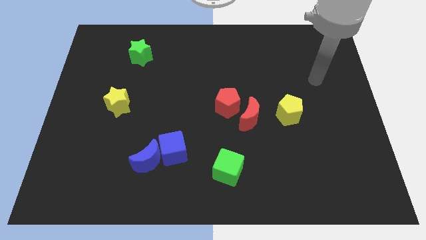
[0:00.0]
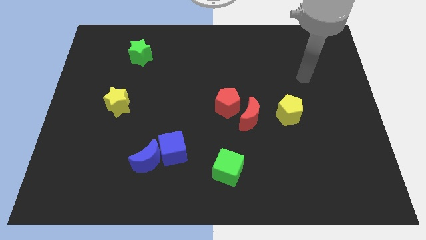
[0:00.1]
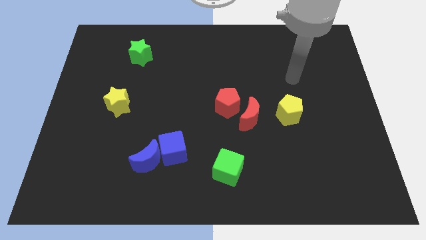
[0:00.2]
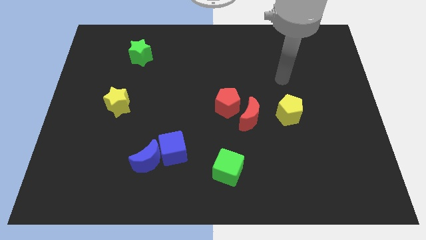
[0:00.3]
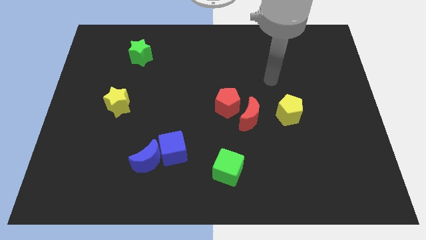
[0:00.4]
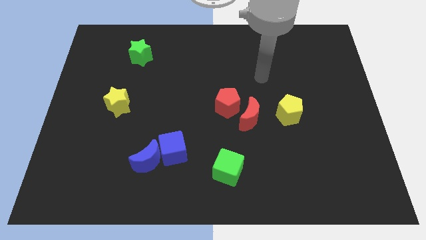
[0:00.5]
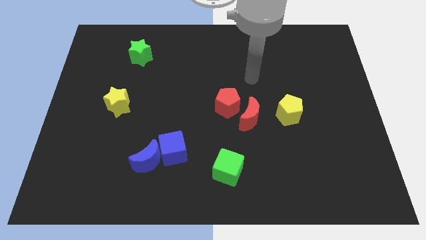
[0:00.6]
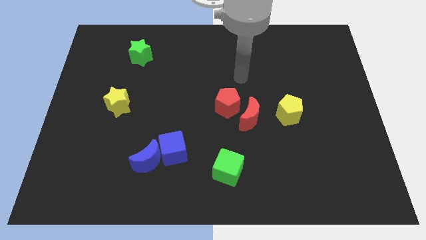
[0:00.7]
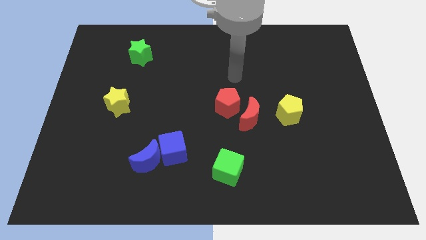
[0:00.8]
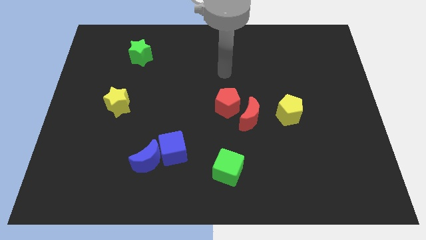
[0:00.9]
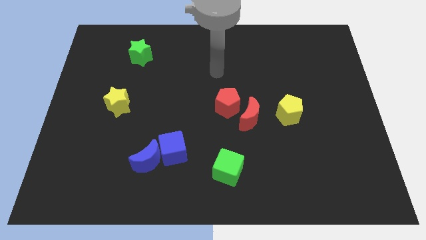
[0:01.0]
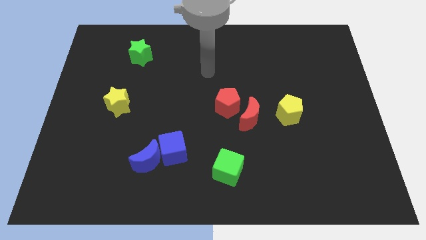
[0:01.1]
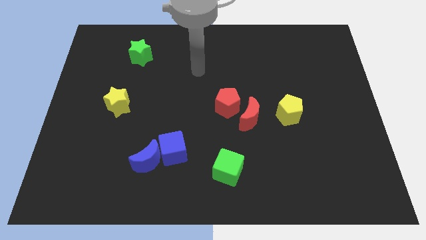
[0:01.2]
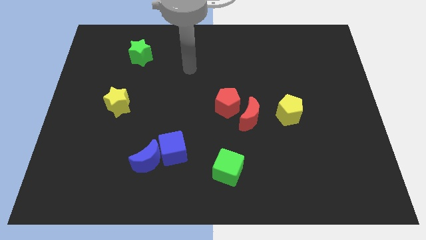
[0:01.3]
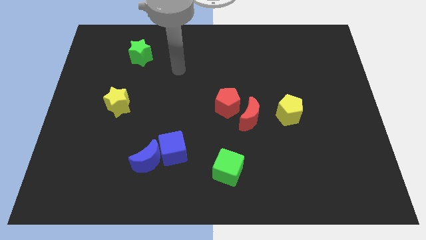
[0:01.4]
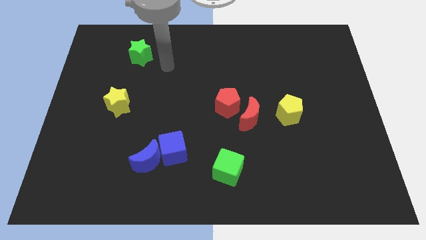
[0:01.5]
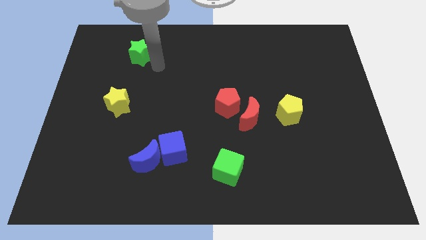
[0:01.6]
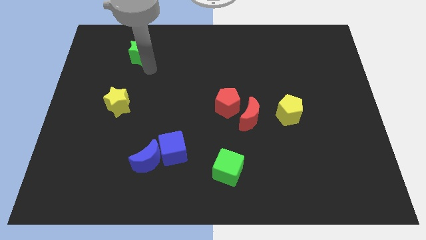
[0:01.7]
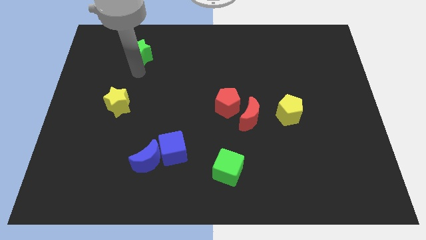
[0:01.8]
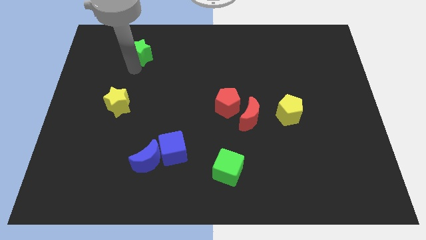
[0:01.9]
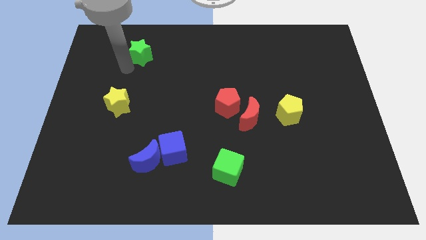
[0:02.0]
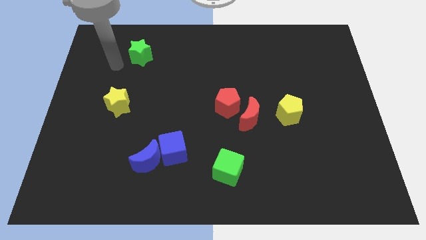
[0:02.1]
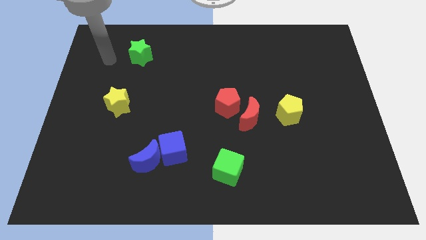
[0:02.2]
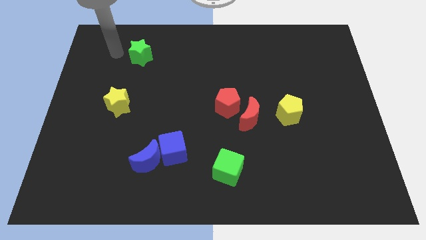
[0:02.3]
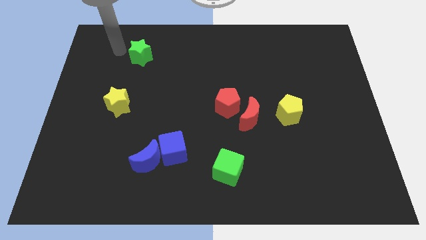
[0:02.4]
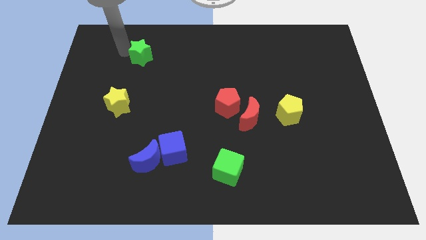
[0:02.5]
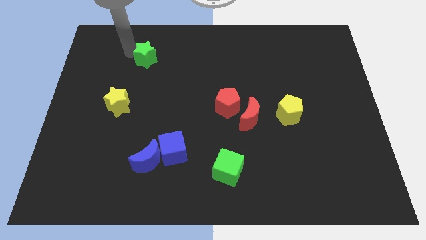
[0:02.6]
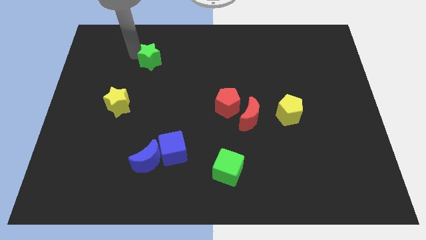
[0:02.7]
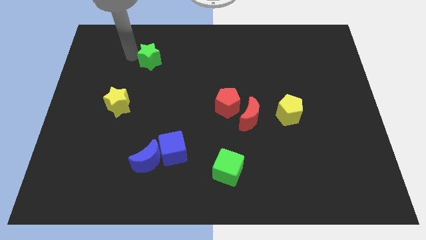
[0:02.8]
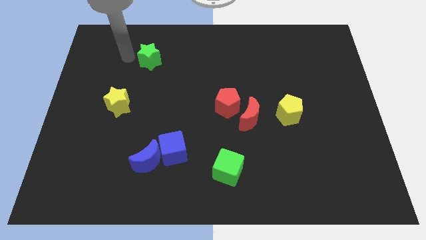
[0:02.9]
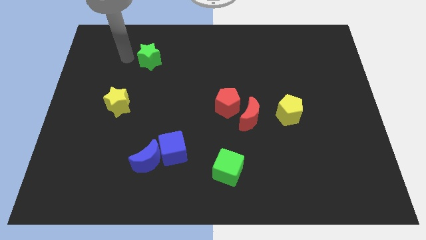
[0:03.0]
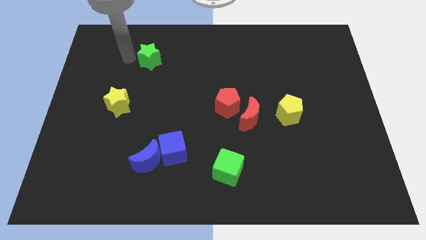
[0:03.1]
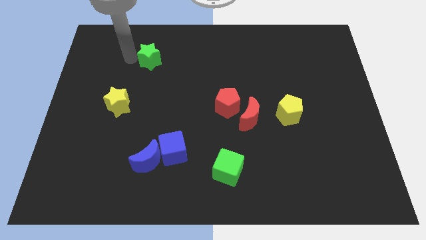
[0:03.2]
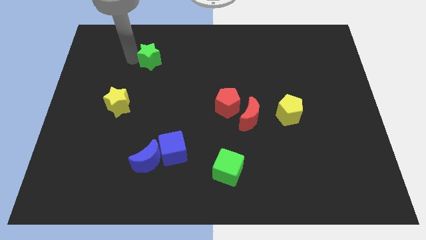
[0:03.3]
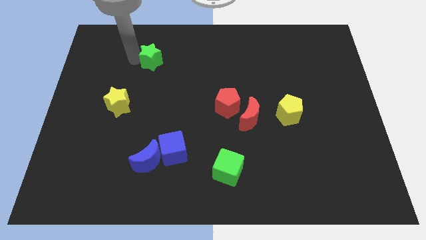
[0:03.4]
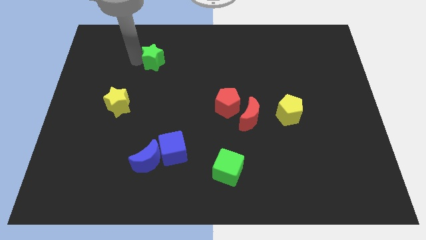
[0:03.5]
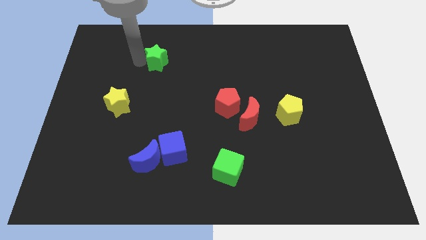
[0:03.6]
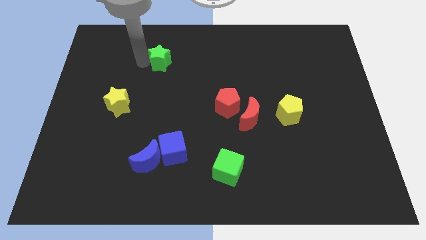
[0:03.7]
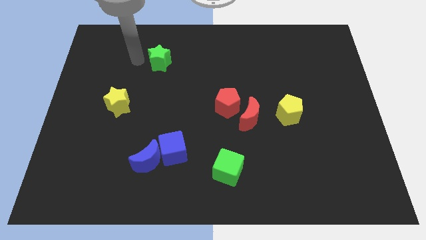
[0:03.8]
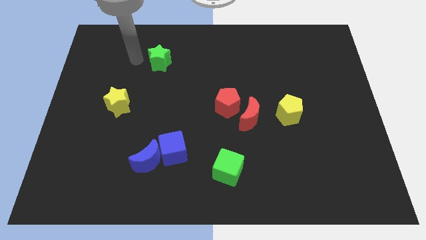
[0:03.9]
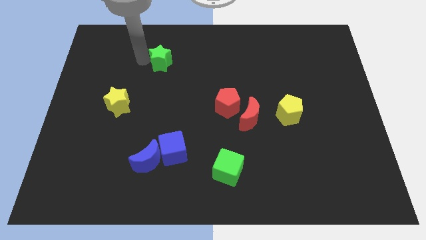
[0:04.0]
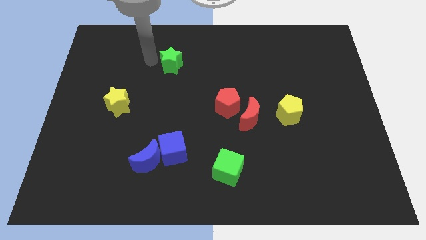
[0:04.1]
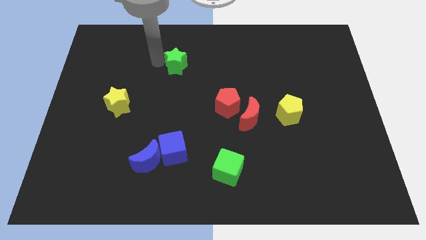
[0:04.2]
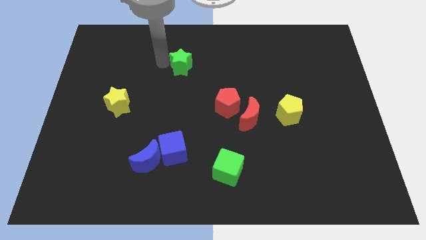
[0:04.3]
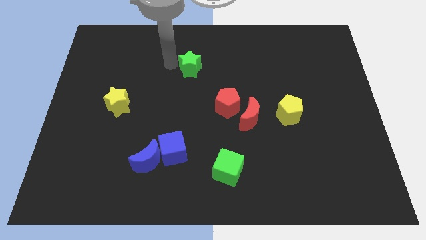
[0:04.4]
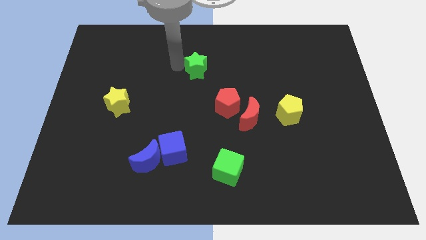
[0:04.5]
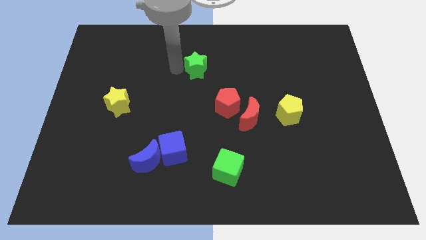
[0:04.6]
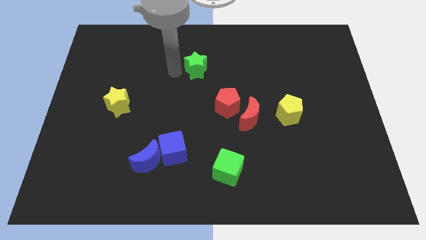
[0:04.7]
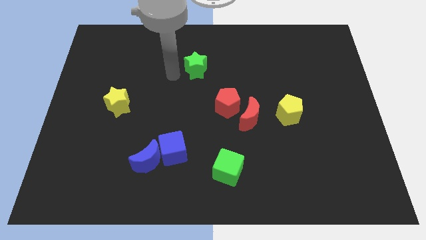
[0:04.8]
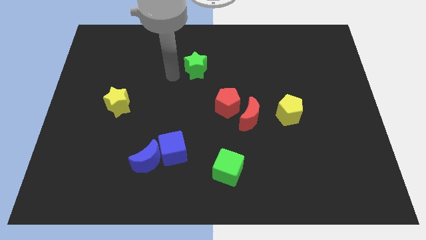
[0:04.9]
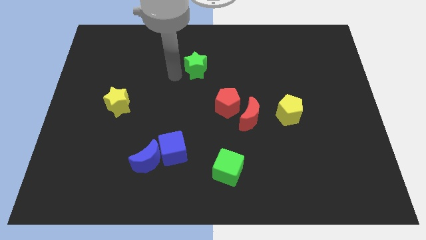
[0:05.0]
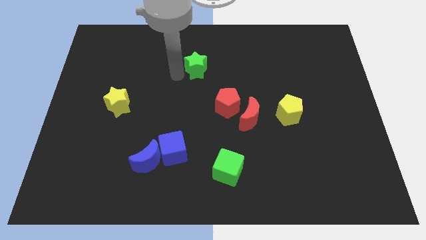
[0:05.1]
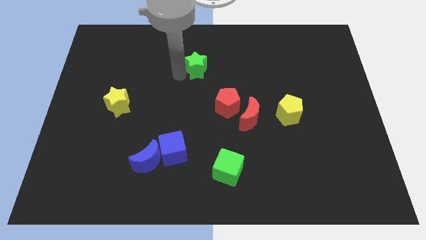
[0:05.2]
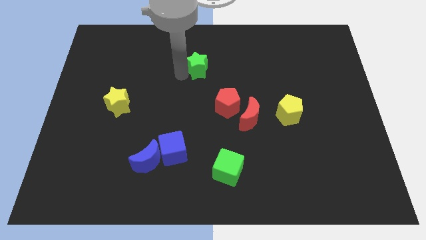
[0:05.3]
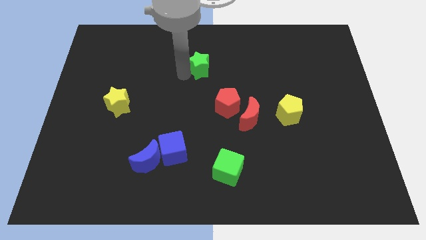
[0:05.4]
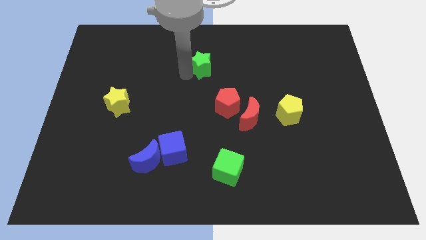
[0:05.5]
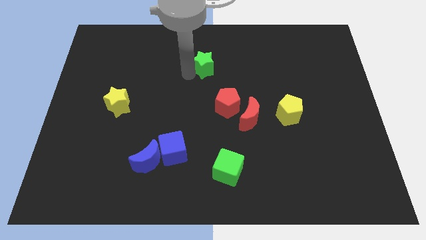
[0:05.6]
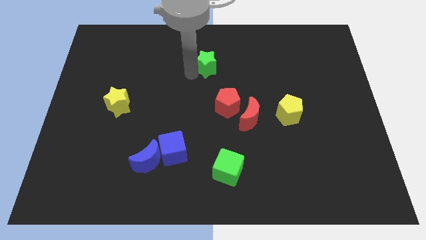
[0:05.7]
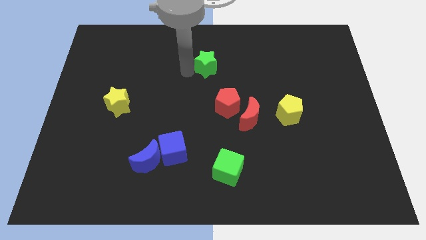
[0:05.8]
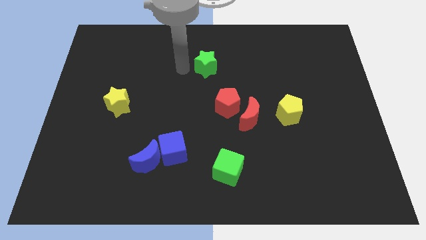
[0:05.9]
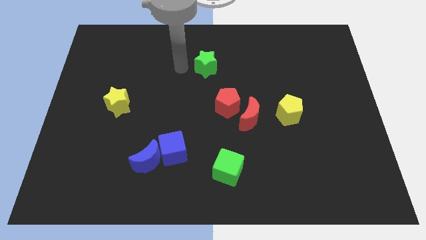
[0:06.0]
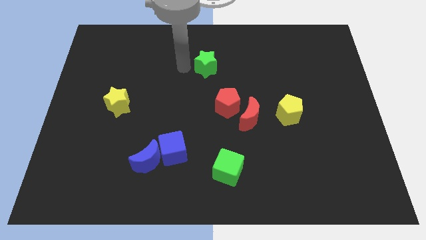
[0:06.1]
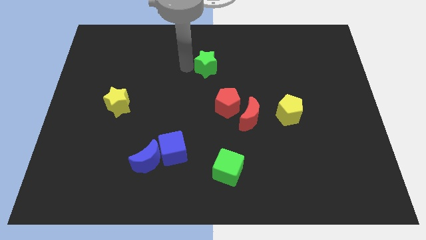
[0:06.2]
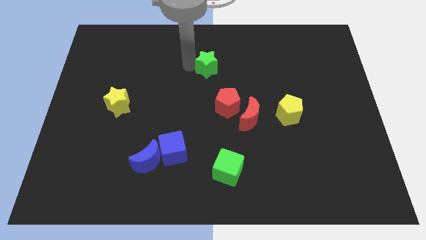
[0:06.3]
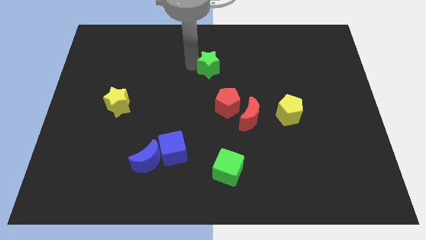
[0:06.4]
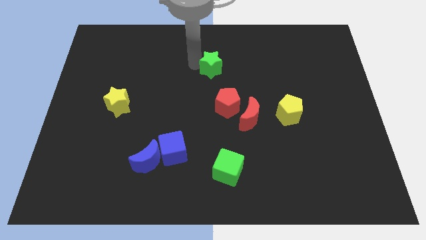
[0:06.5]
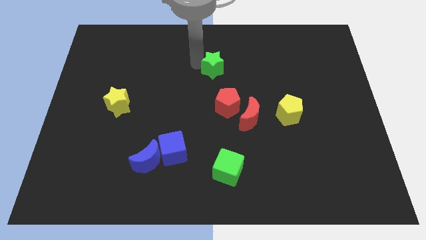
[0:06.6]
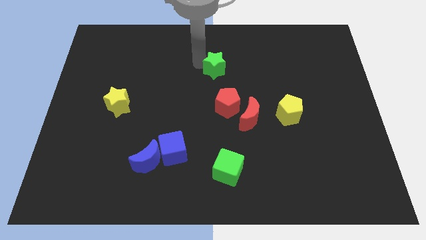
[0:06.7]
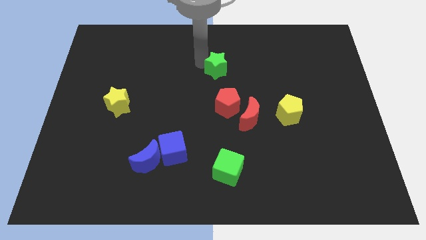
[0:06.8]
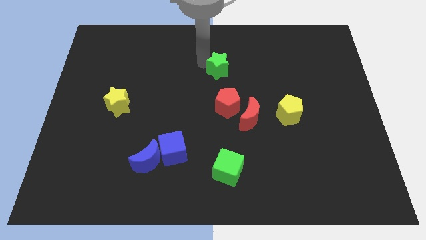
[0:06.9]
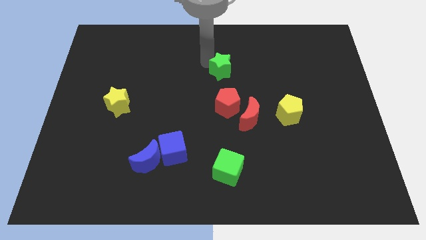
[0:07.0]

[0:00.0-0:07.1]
slide the green star right

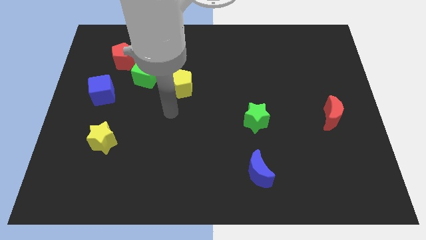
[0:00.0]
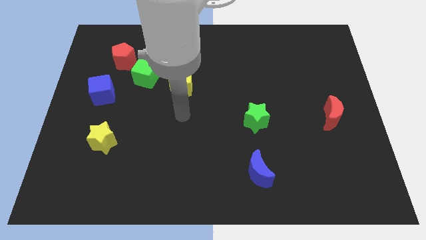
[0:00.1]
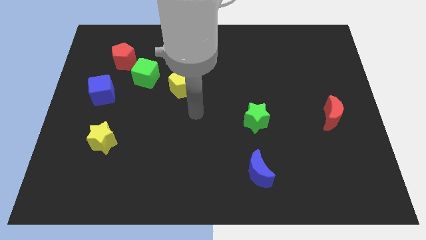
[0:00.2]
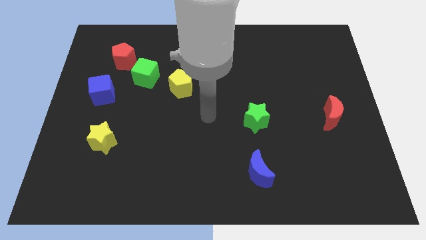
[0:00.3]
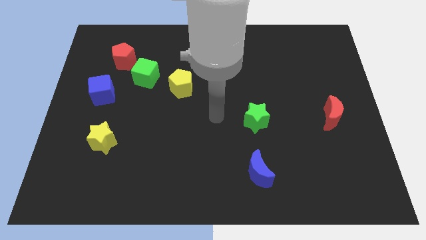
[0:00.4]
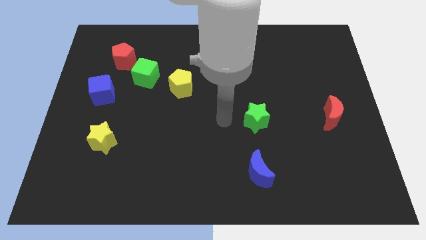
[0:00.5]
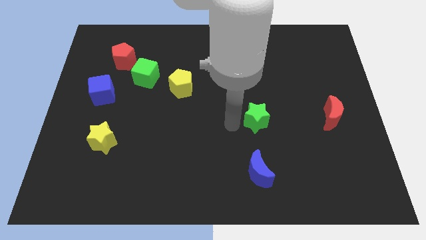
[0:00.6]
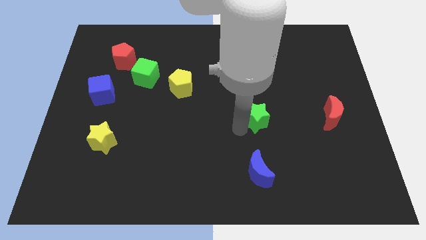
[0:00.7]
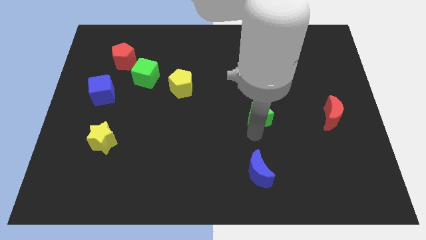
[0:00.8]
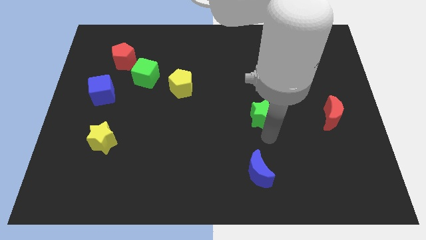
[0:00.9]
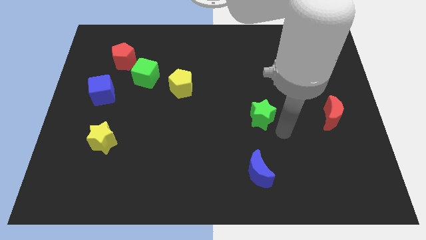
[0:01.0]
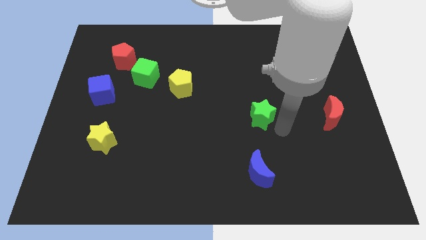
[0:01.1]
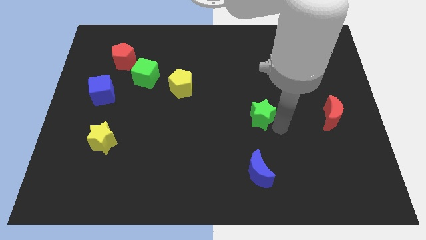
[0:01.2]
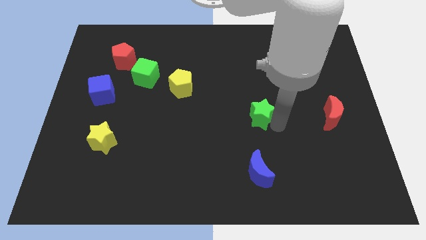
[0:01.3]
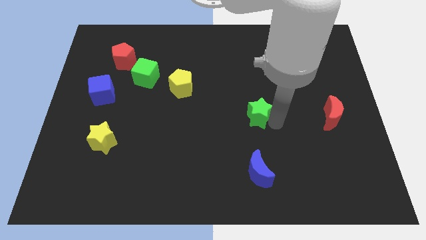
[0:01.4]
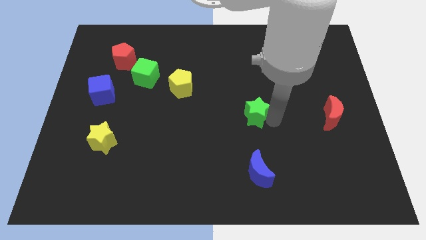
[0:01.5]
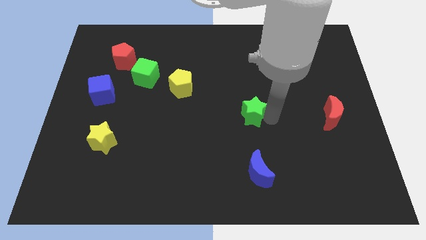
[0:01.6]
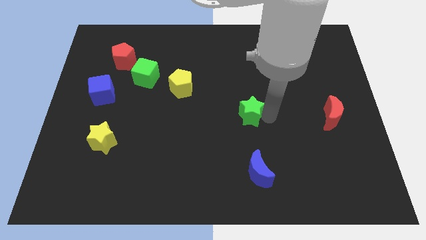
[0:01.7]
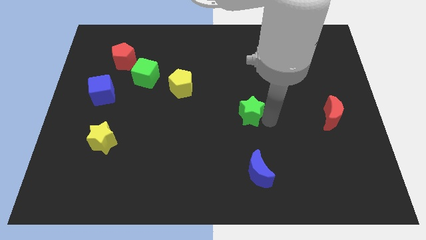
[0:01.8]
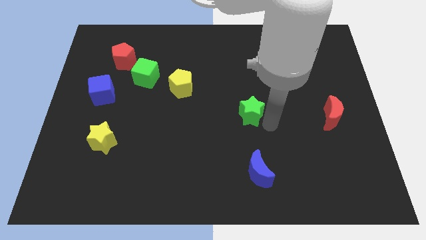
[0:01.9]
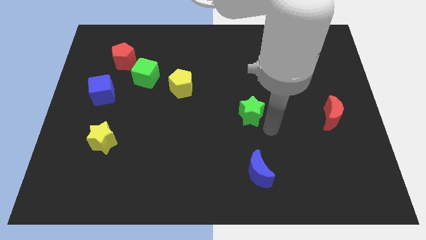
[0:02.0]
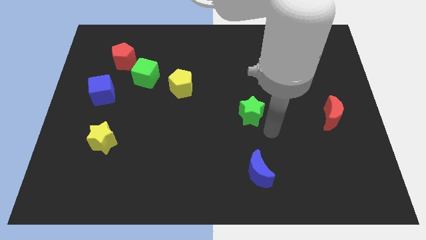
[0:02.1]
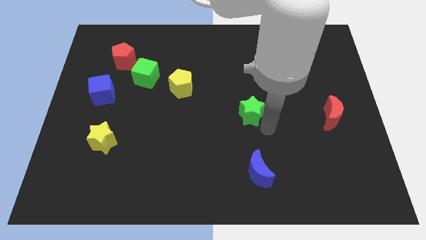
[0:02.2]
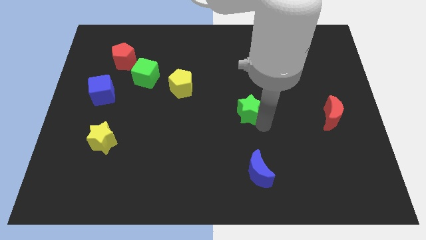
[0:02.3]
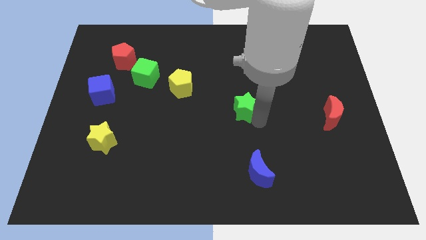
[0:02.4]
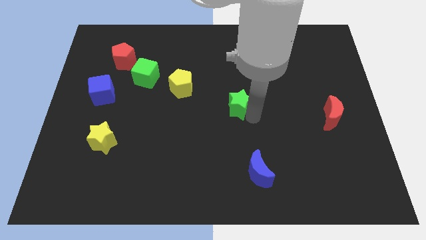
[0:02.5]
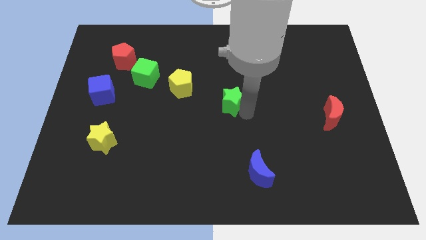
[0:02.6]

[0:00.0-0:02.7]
move the green star a bit upwards and then left
